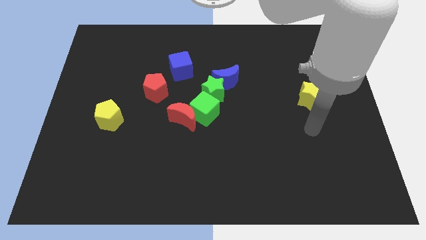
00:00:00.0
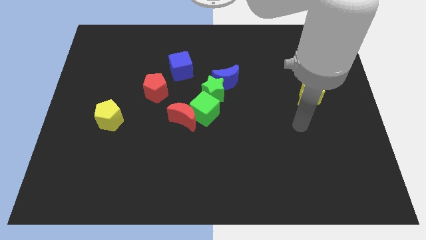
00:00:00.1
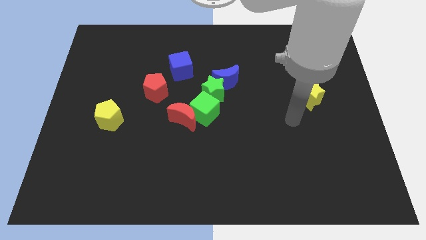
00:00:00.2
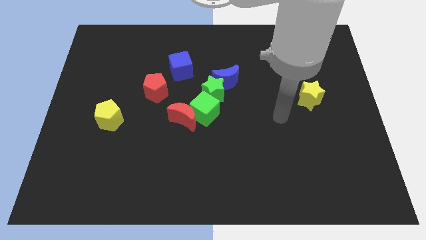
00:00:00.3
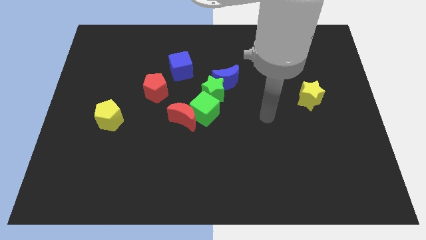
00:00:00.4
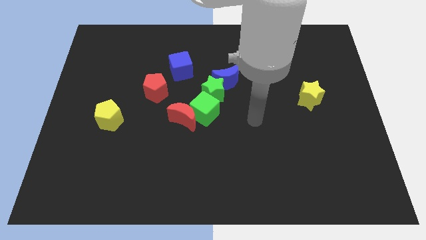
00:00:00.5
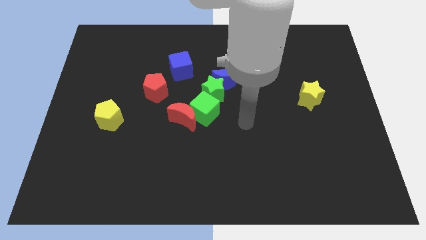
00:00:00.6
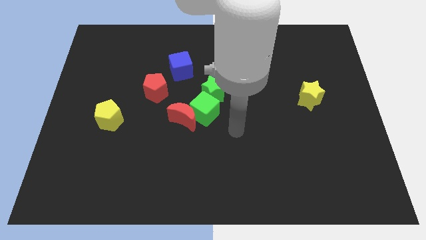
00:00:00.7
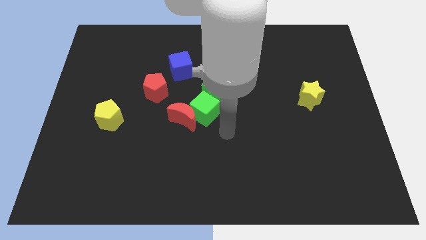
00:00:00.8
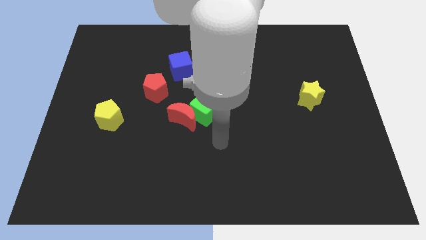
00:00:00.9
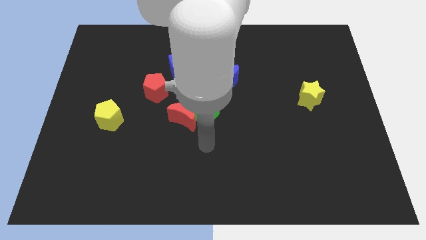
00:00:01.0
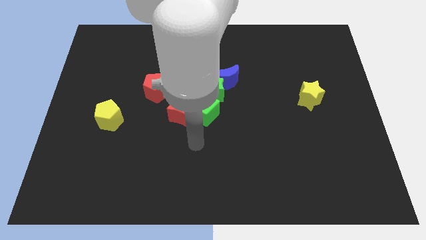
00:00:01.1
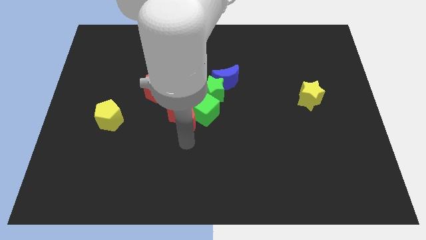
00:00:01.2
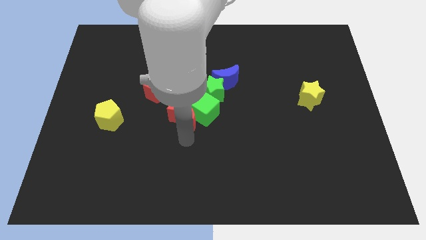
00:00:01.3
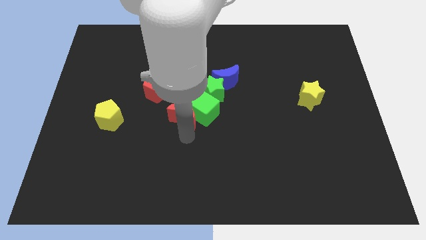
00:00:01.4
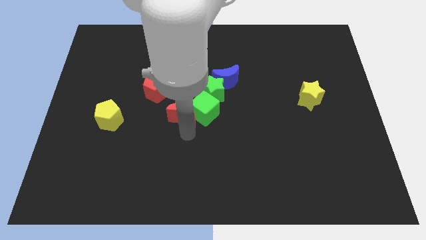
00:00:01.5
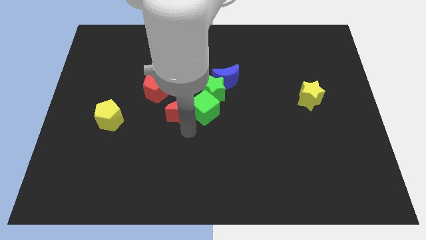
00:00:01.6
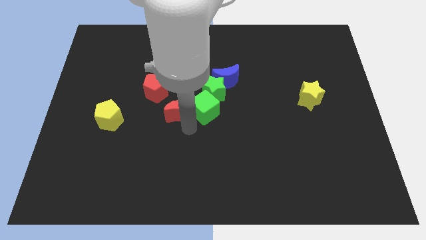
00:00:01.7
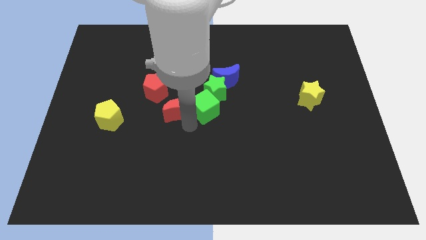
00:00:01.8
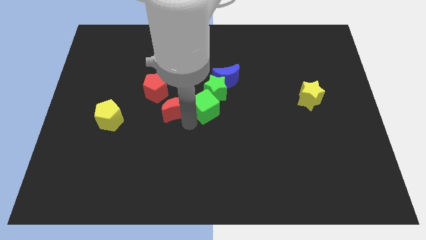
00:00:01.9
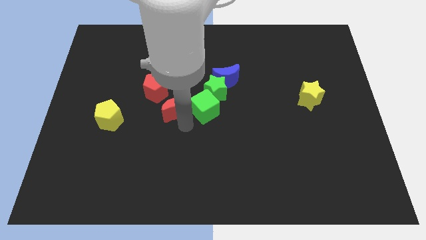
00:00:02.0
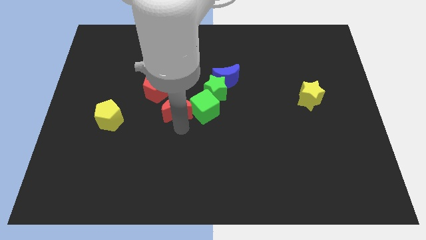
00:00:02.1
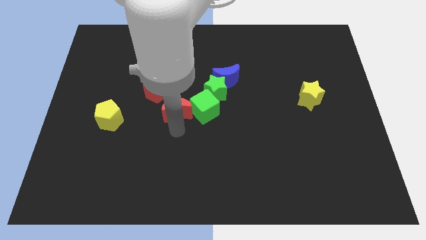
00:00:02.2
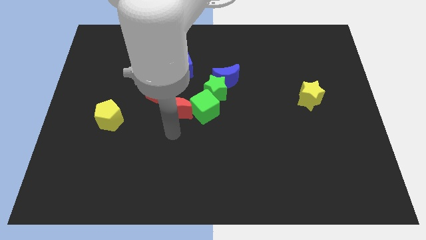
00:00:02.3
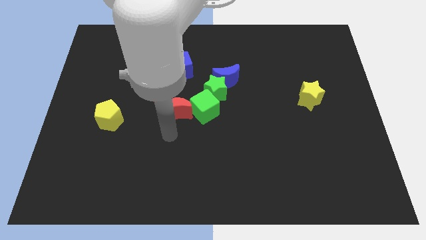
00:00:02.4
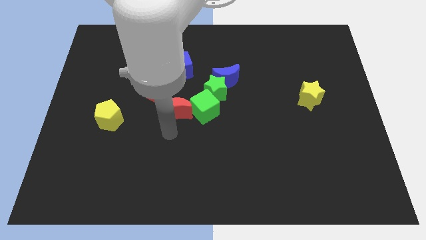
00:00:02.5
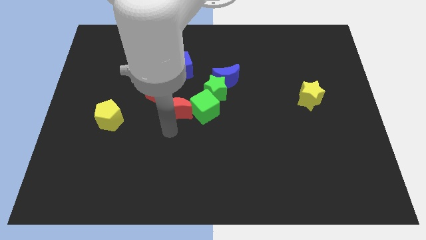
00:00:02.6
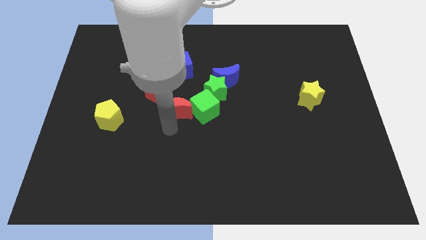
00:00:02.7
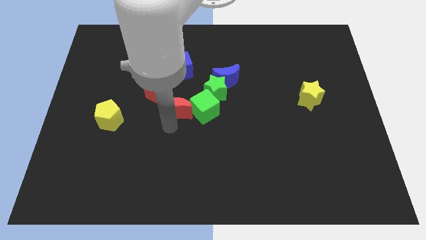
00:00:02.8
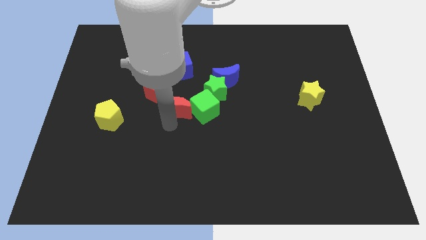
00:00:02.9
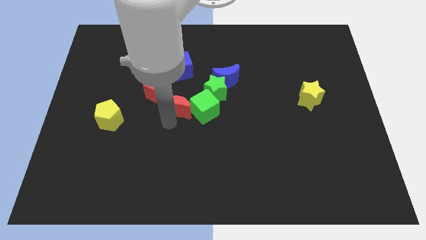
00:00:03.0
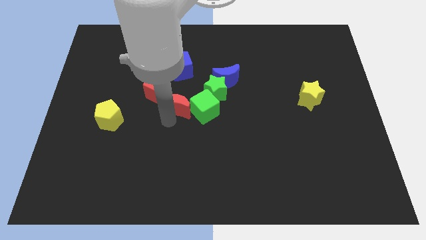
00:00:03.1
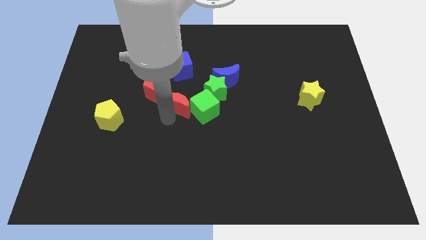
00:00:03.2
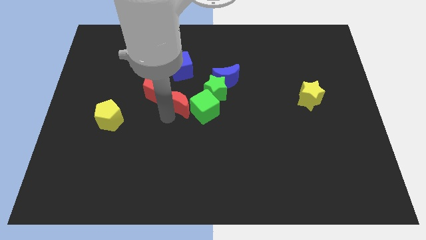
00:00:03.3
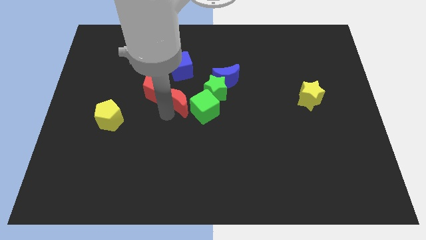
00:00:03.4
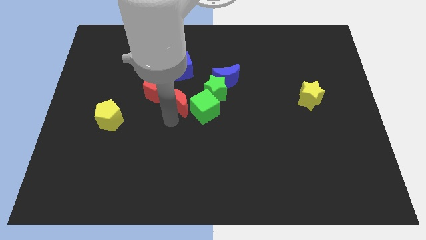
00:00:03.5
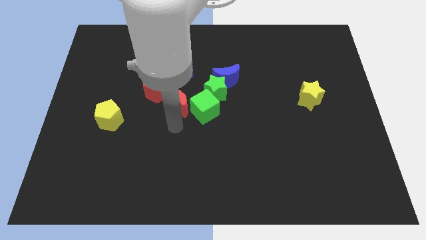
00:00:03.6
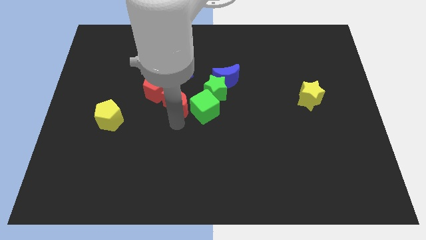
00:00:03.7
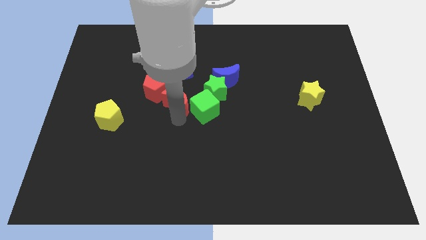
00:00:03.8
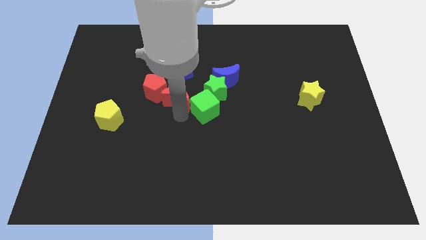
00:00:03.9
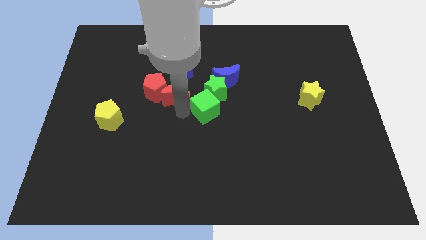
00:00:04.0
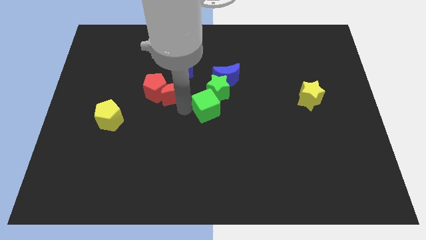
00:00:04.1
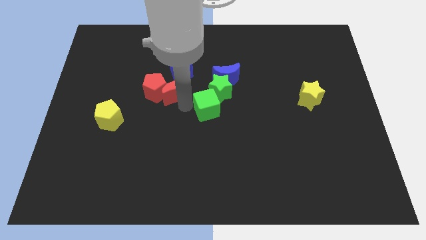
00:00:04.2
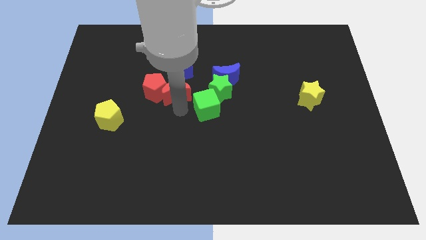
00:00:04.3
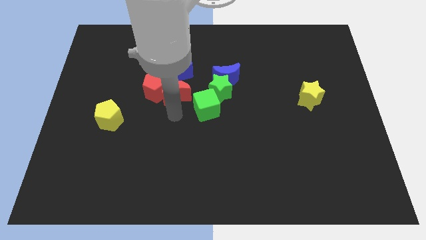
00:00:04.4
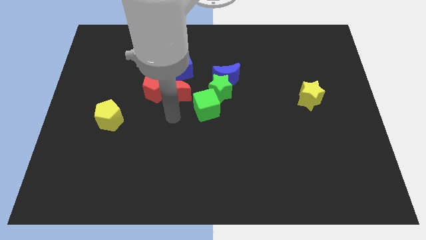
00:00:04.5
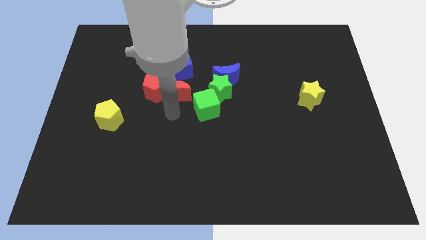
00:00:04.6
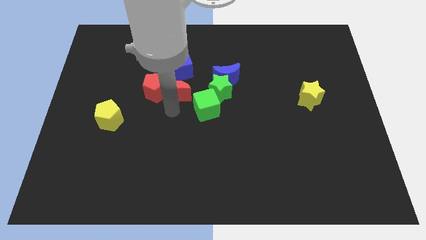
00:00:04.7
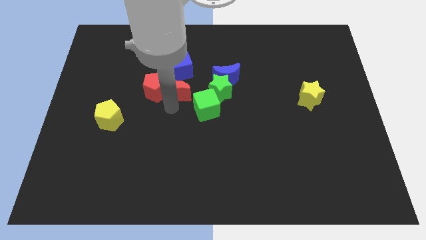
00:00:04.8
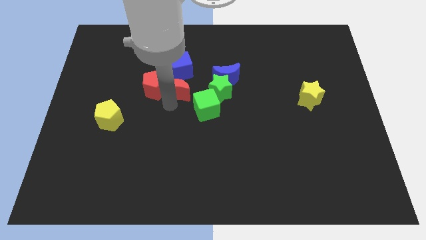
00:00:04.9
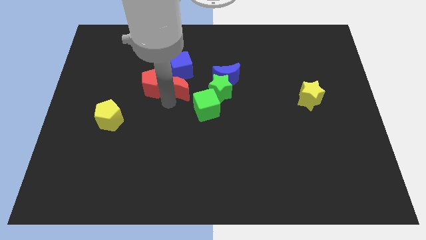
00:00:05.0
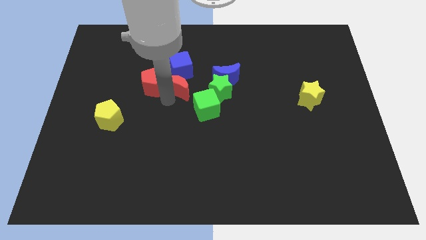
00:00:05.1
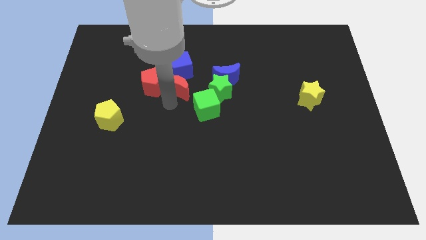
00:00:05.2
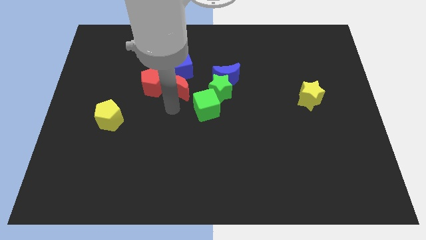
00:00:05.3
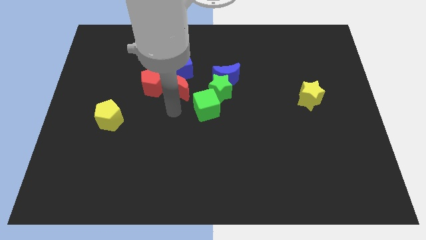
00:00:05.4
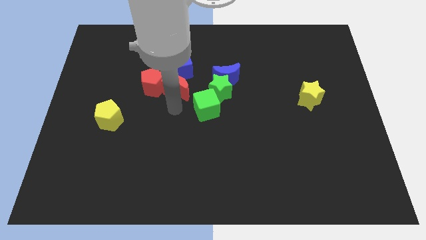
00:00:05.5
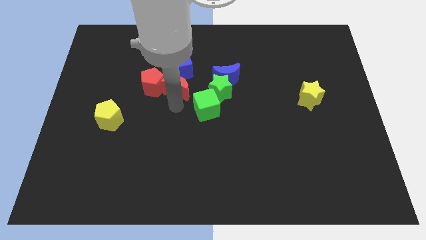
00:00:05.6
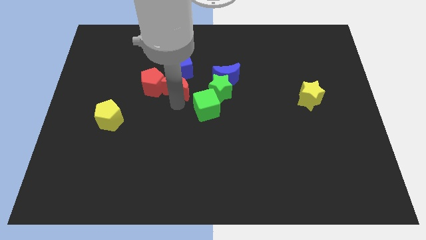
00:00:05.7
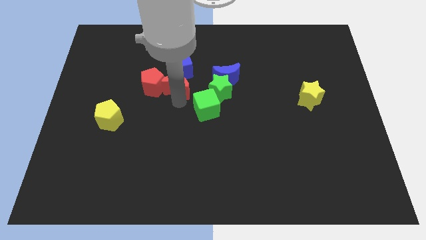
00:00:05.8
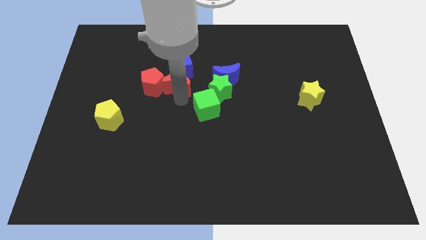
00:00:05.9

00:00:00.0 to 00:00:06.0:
put the red moon towards the blue cube
